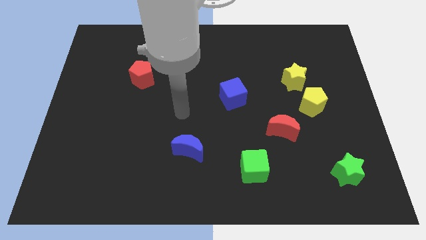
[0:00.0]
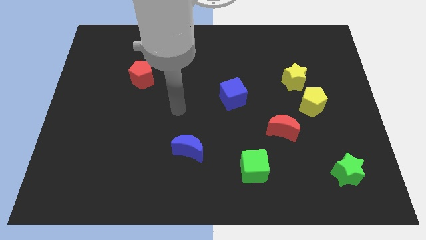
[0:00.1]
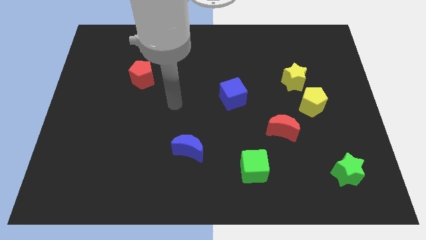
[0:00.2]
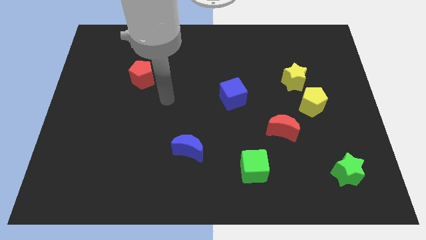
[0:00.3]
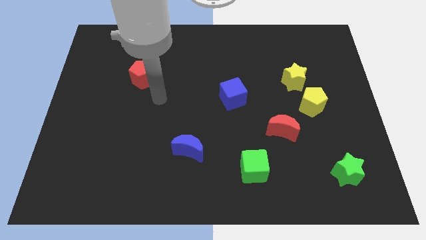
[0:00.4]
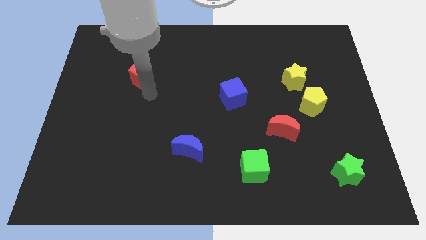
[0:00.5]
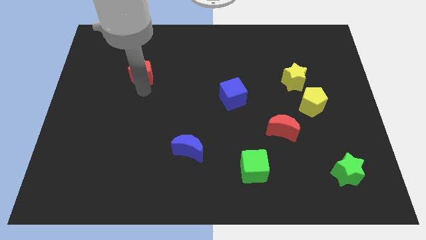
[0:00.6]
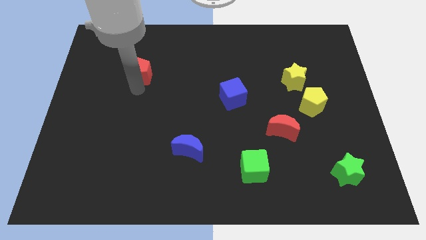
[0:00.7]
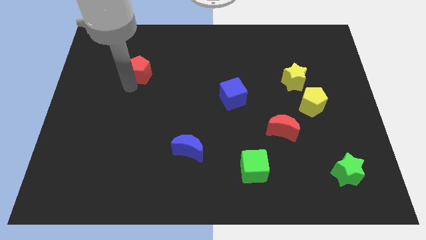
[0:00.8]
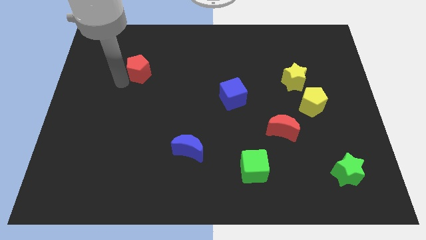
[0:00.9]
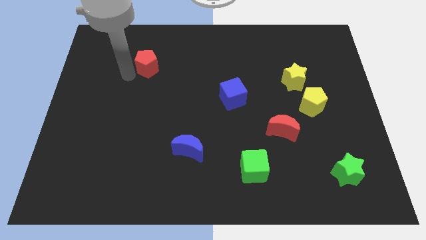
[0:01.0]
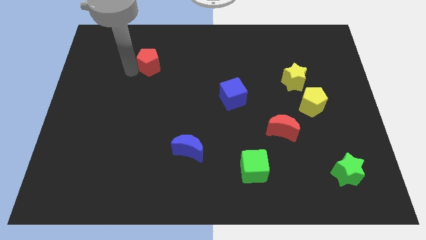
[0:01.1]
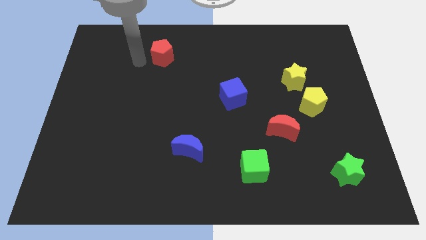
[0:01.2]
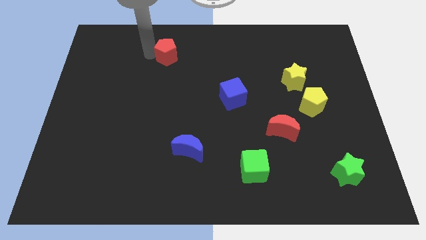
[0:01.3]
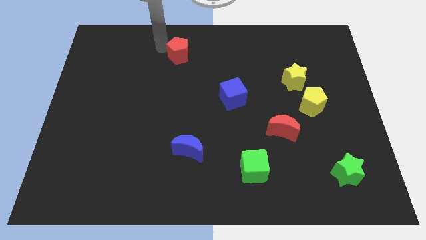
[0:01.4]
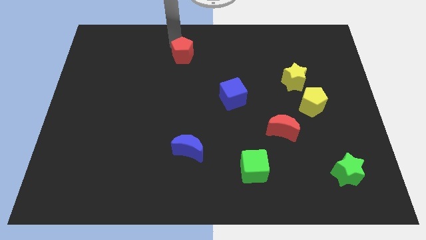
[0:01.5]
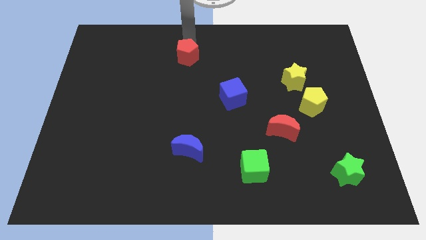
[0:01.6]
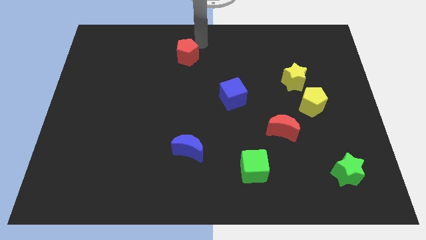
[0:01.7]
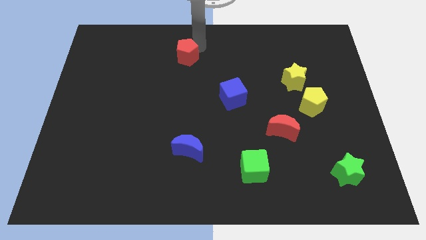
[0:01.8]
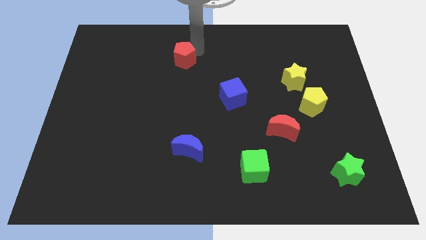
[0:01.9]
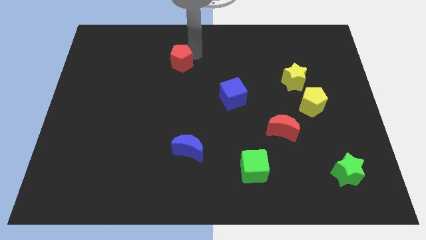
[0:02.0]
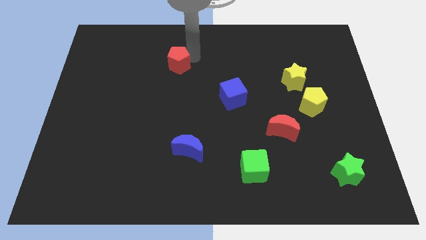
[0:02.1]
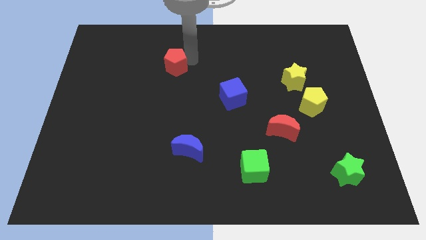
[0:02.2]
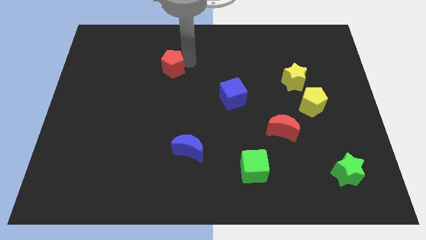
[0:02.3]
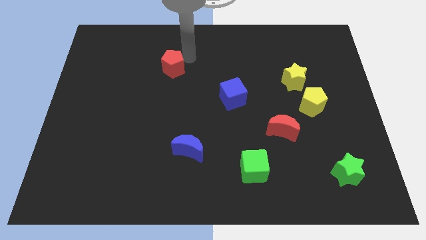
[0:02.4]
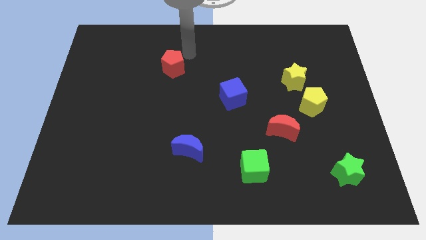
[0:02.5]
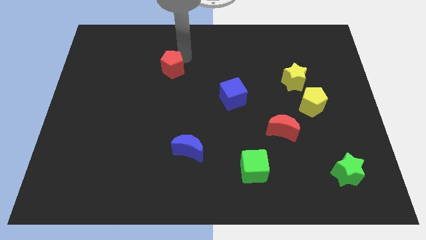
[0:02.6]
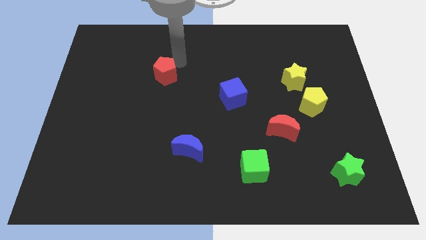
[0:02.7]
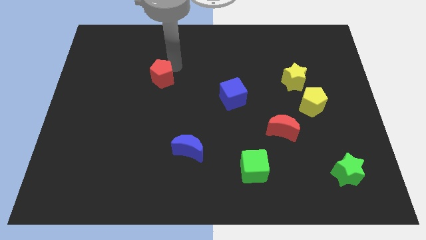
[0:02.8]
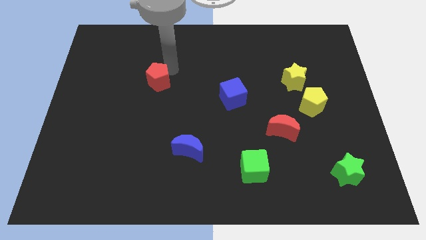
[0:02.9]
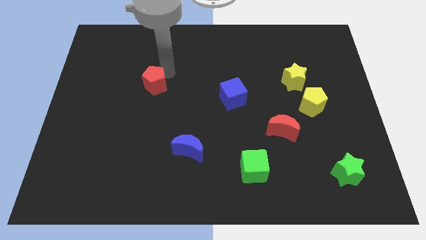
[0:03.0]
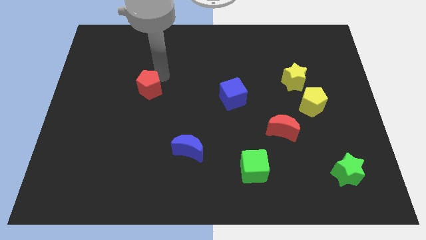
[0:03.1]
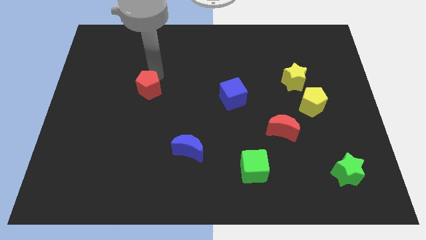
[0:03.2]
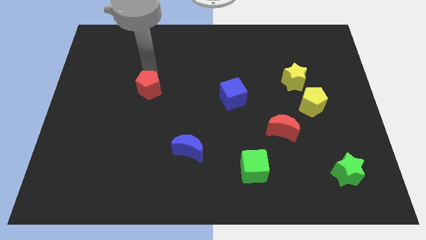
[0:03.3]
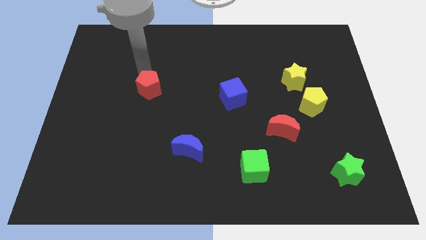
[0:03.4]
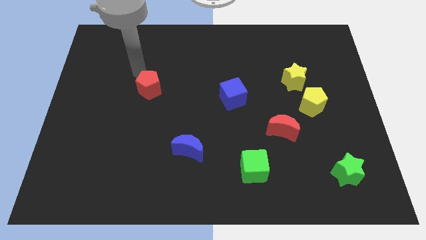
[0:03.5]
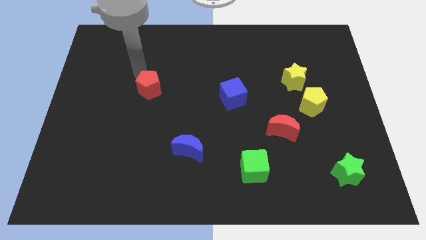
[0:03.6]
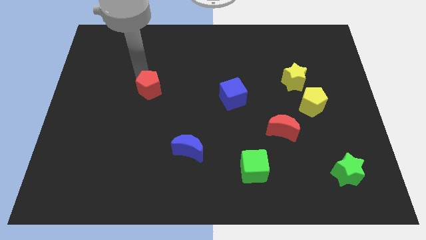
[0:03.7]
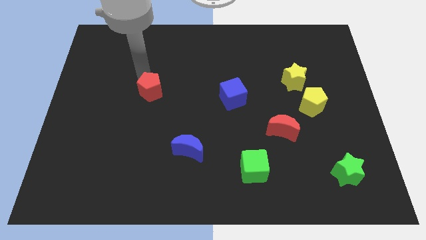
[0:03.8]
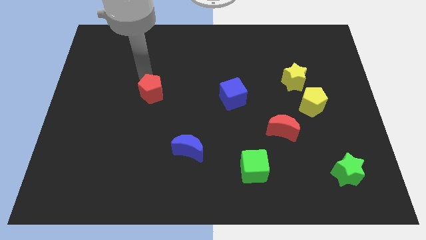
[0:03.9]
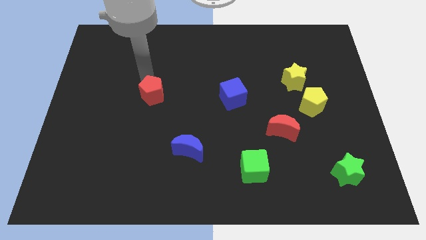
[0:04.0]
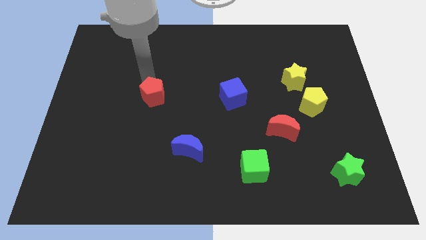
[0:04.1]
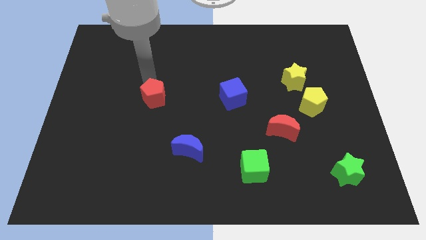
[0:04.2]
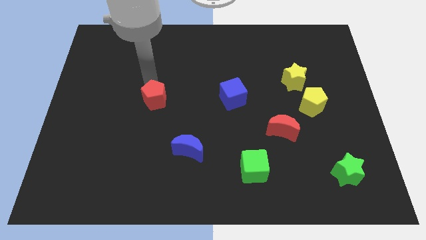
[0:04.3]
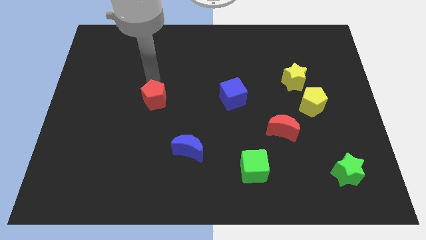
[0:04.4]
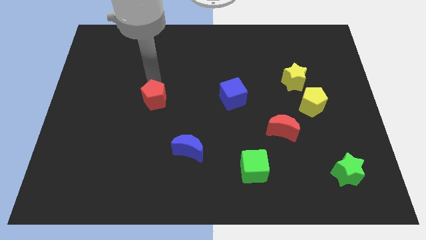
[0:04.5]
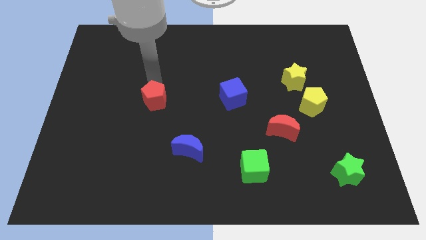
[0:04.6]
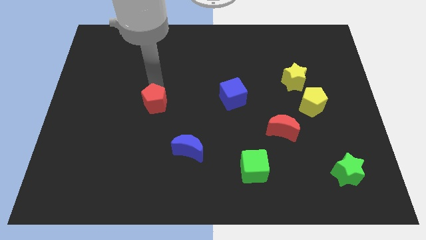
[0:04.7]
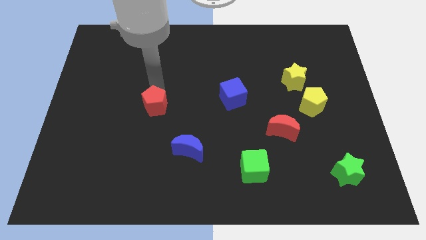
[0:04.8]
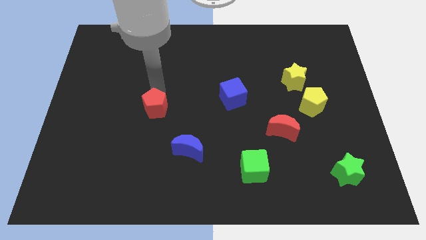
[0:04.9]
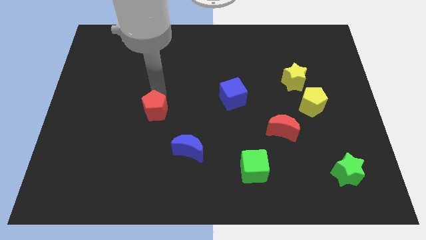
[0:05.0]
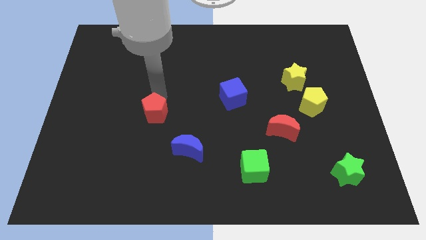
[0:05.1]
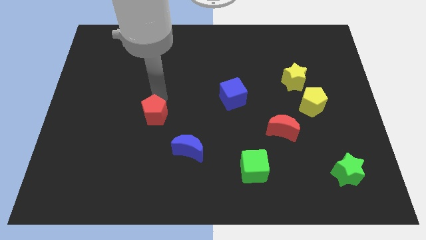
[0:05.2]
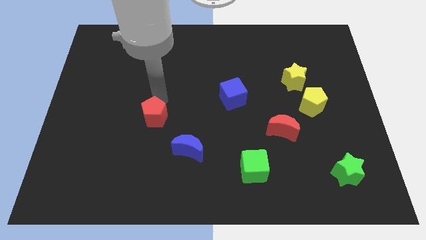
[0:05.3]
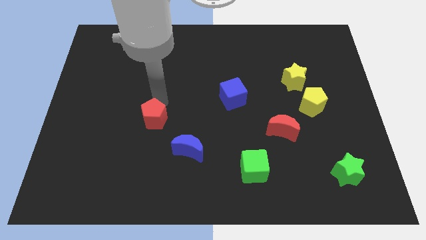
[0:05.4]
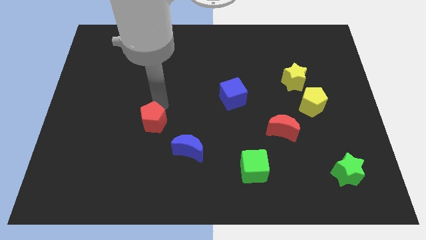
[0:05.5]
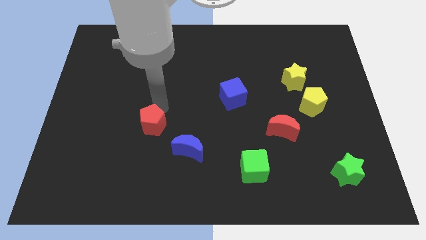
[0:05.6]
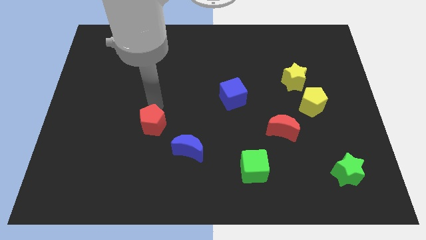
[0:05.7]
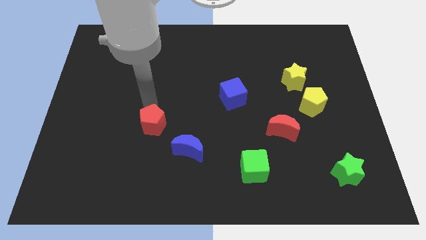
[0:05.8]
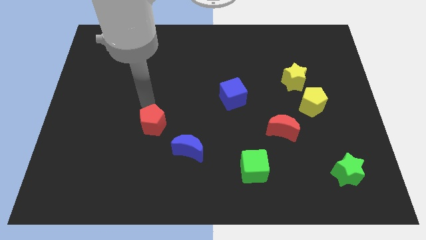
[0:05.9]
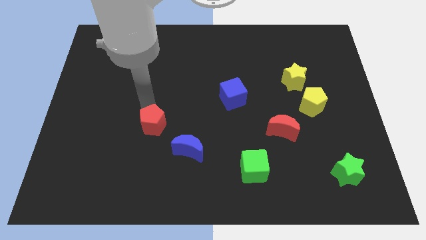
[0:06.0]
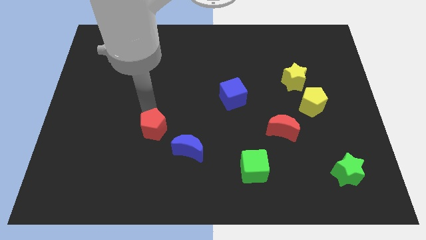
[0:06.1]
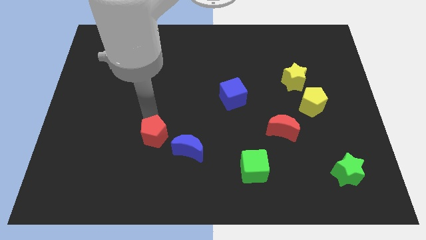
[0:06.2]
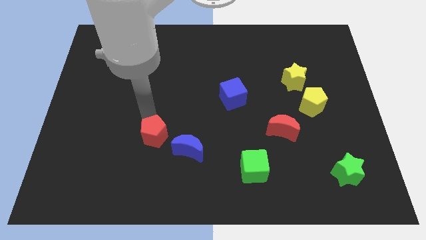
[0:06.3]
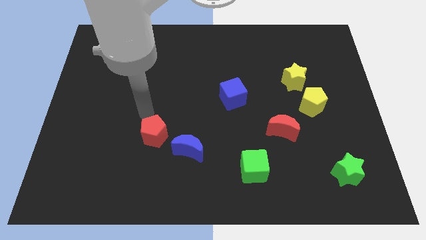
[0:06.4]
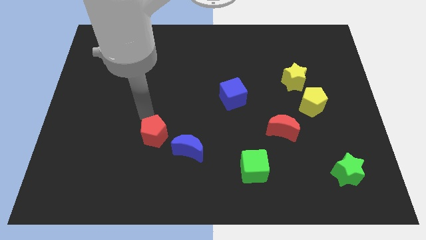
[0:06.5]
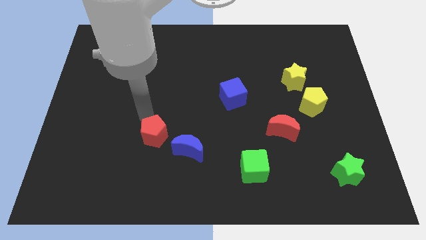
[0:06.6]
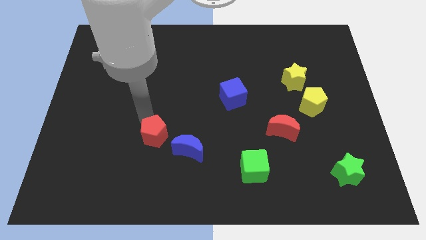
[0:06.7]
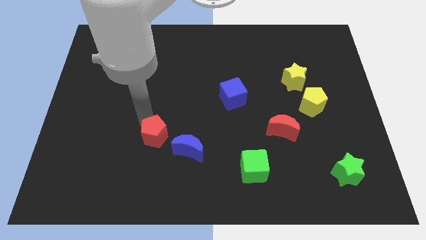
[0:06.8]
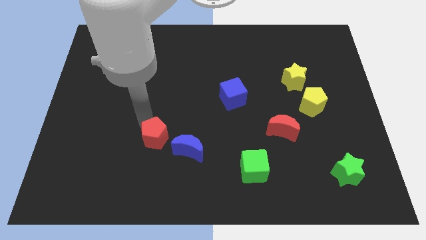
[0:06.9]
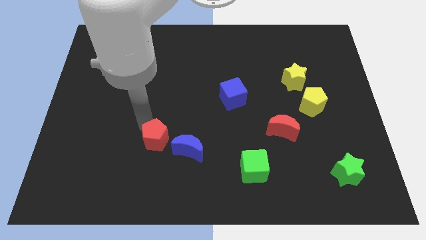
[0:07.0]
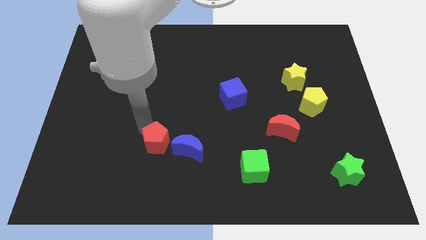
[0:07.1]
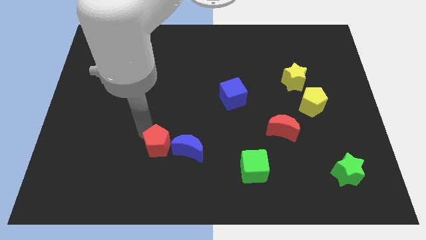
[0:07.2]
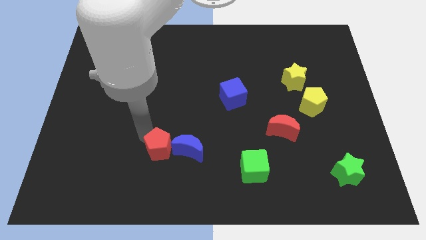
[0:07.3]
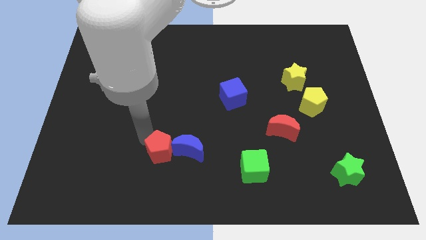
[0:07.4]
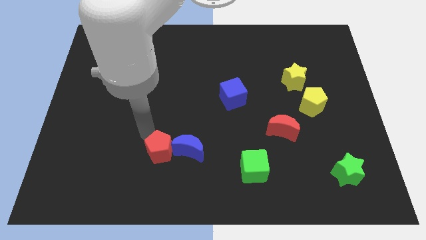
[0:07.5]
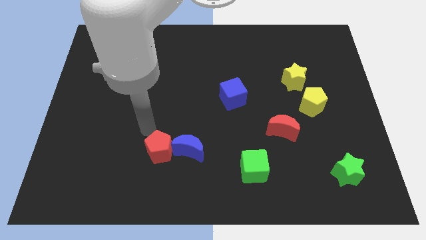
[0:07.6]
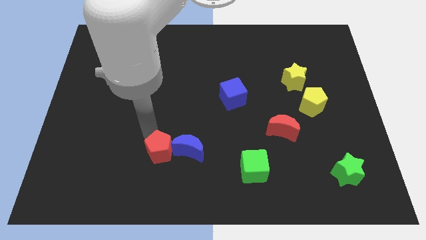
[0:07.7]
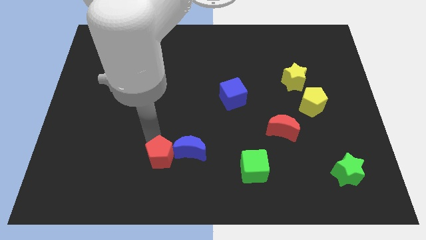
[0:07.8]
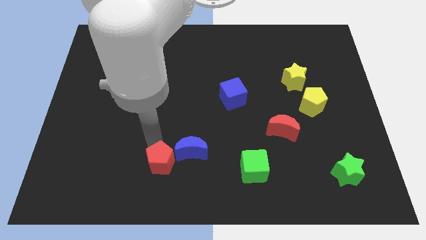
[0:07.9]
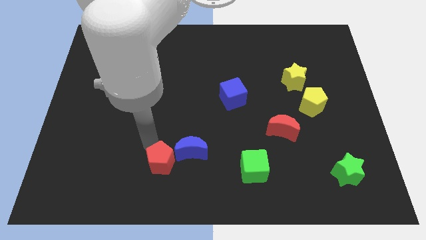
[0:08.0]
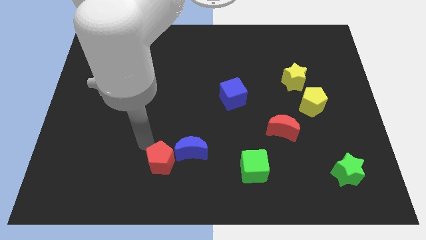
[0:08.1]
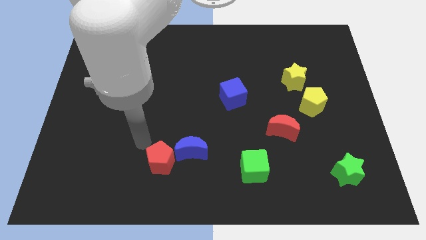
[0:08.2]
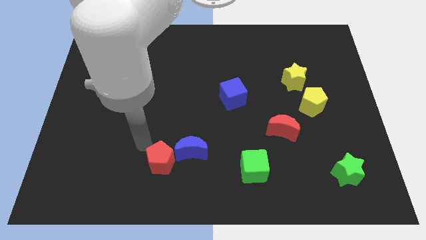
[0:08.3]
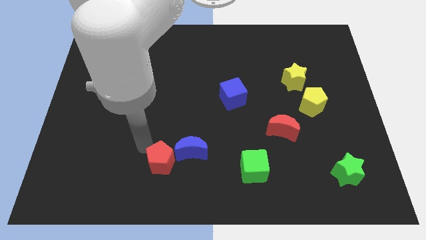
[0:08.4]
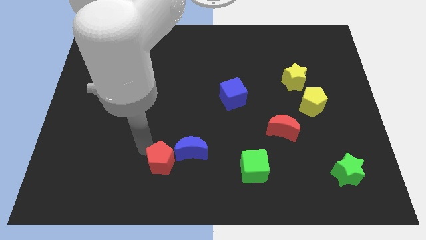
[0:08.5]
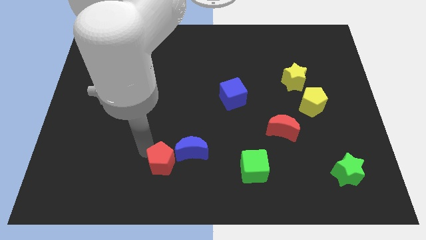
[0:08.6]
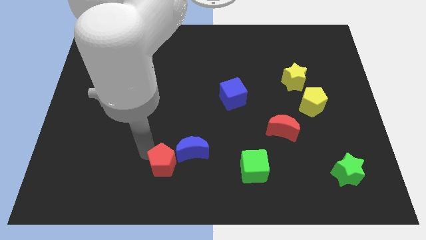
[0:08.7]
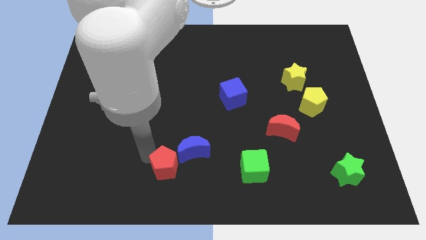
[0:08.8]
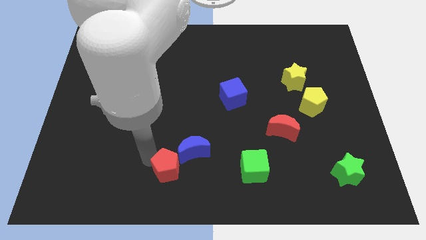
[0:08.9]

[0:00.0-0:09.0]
push the red pentagon to the bottom
